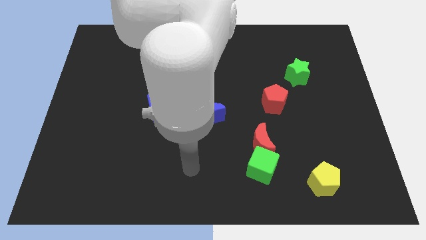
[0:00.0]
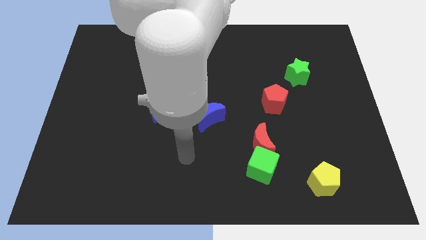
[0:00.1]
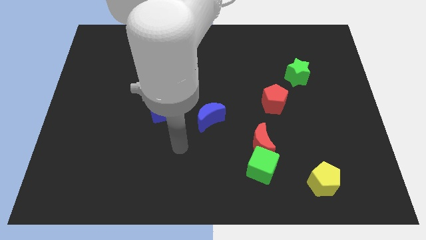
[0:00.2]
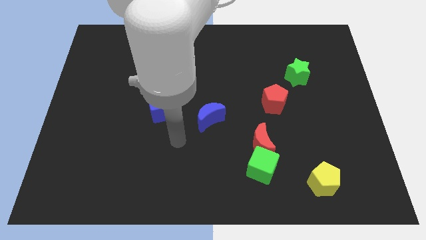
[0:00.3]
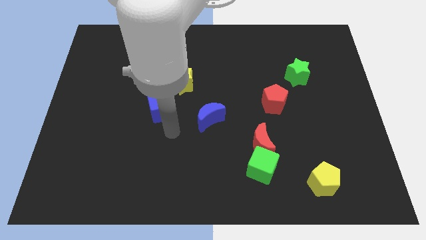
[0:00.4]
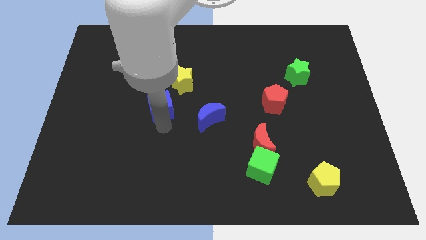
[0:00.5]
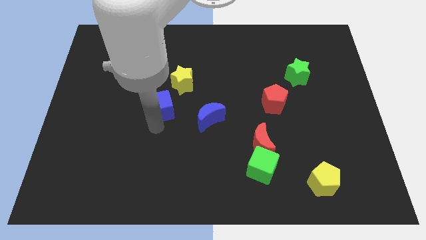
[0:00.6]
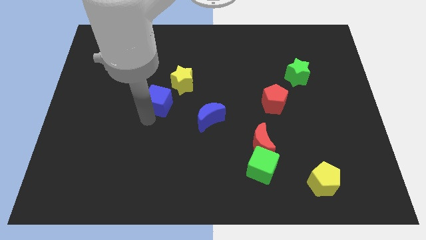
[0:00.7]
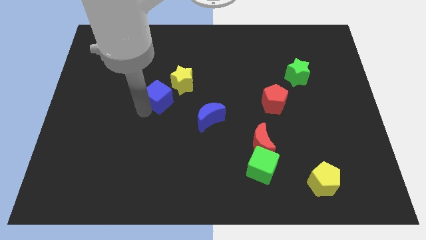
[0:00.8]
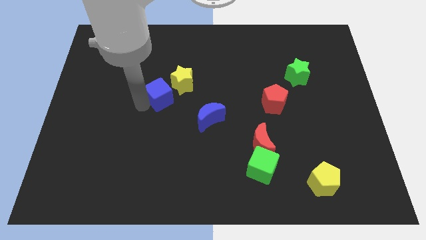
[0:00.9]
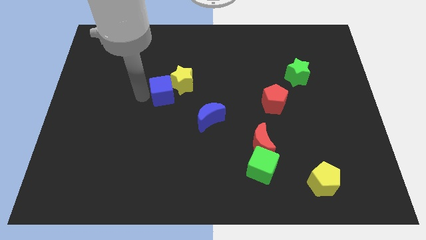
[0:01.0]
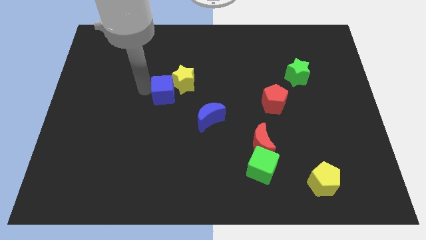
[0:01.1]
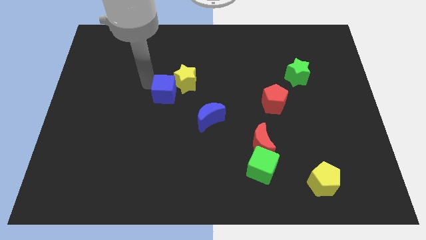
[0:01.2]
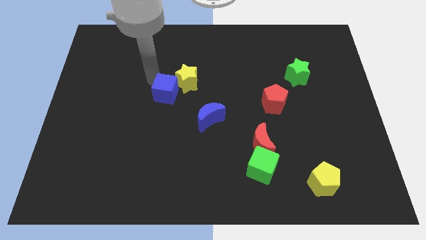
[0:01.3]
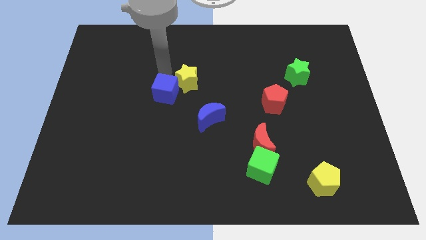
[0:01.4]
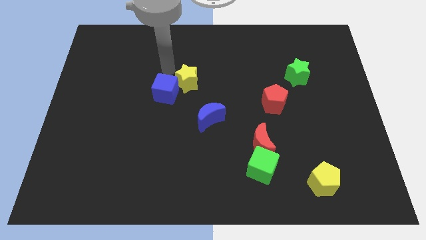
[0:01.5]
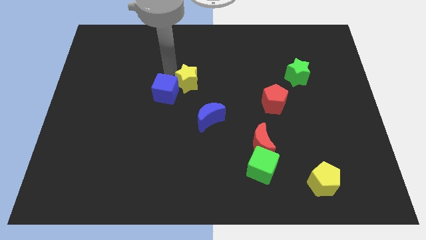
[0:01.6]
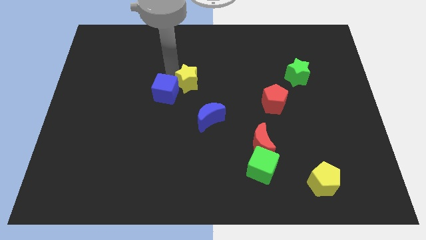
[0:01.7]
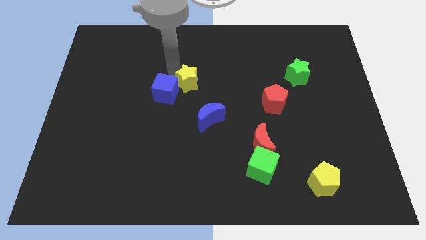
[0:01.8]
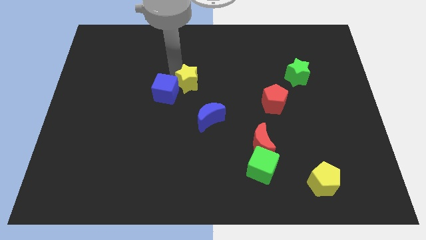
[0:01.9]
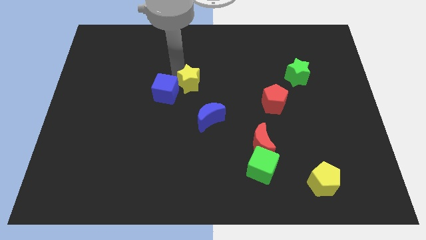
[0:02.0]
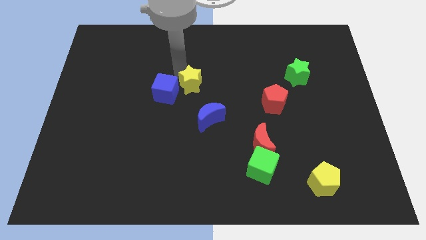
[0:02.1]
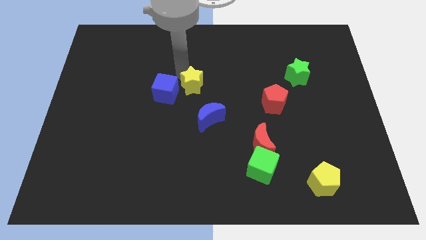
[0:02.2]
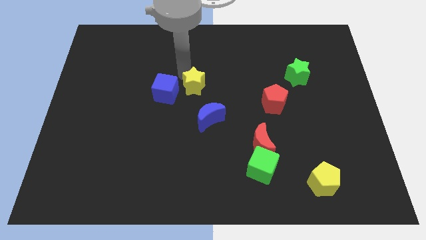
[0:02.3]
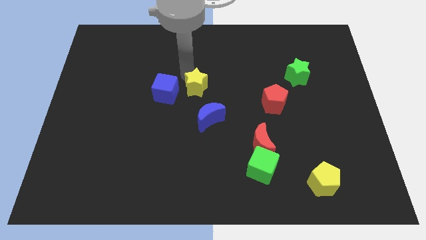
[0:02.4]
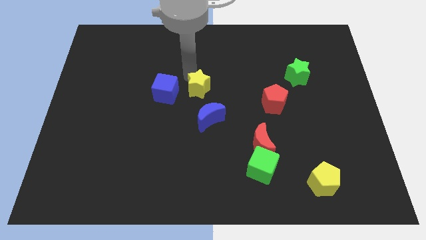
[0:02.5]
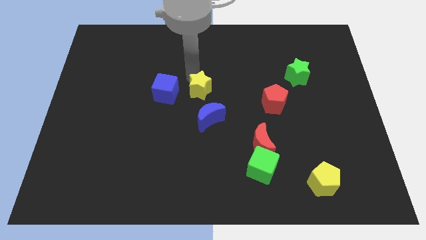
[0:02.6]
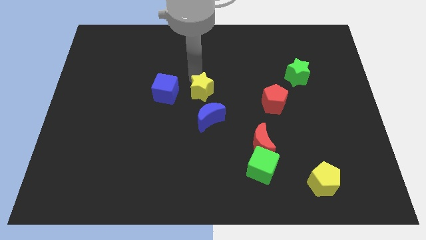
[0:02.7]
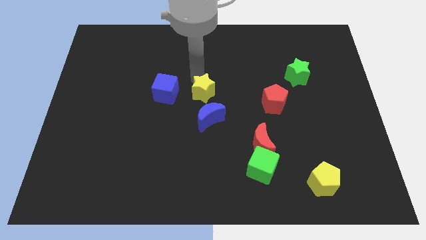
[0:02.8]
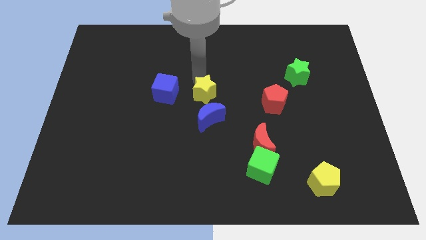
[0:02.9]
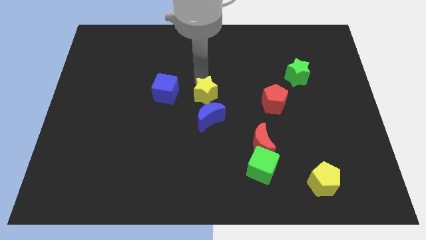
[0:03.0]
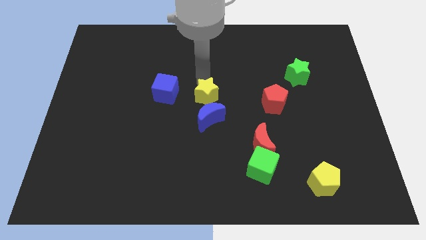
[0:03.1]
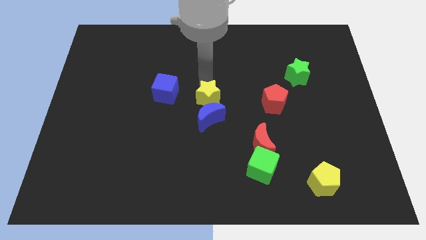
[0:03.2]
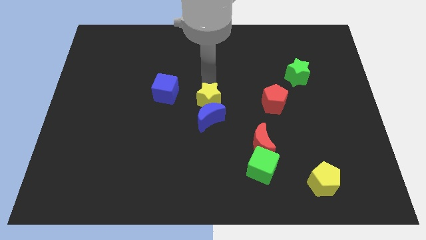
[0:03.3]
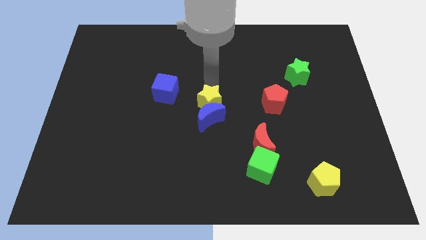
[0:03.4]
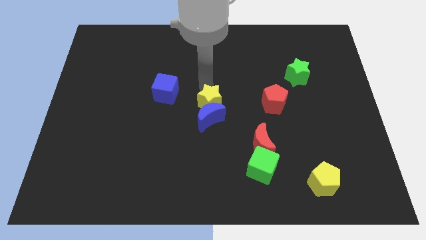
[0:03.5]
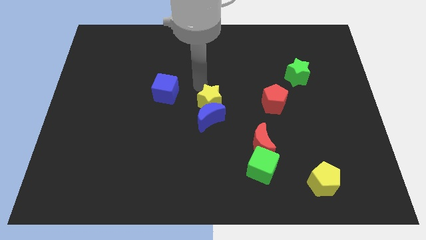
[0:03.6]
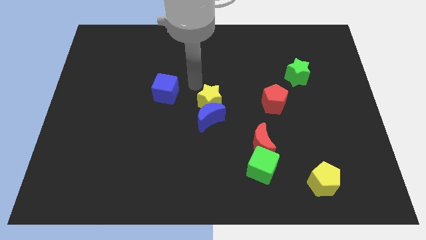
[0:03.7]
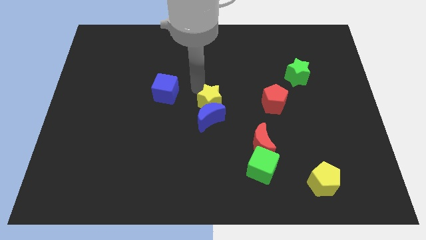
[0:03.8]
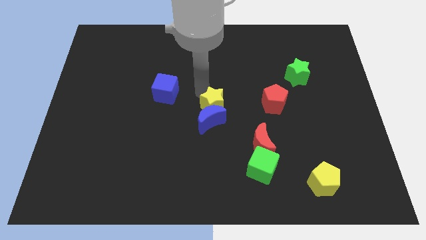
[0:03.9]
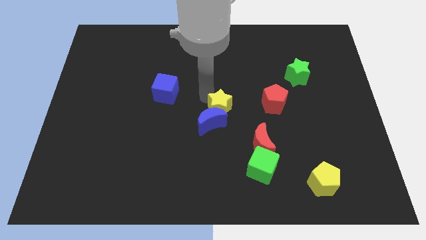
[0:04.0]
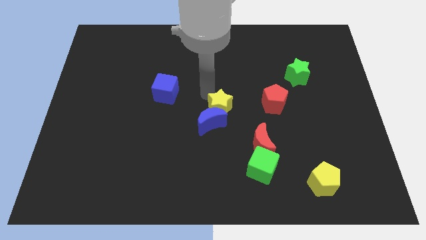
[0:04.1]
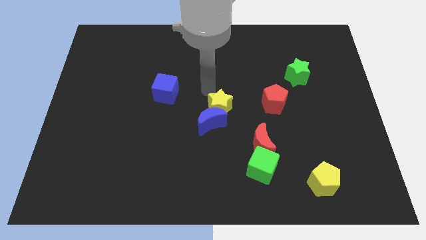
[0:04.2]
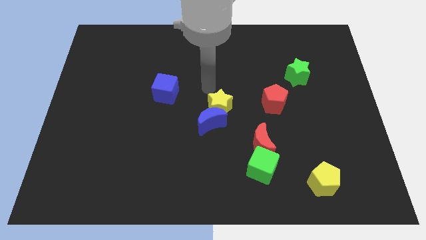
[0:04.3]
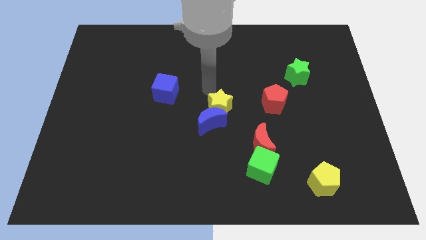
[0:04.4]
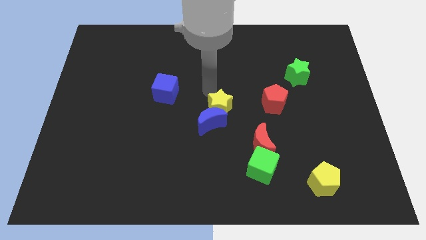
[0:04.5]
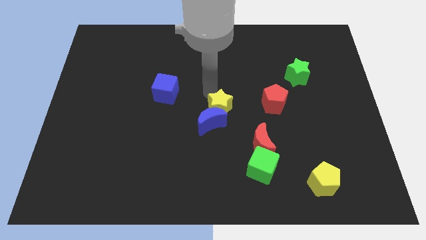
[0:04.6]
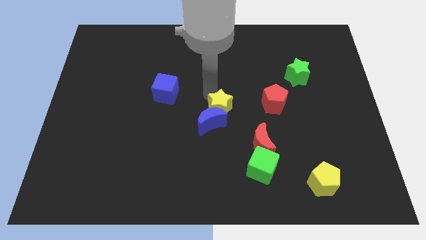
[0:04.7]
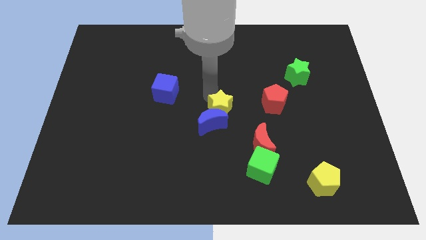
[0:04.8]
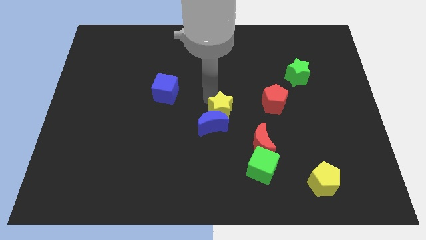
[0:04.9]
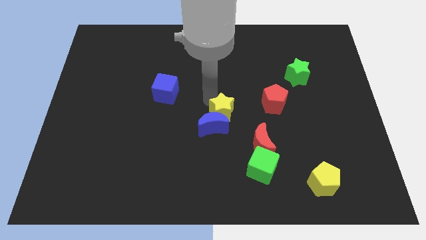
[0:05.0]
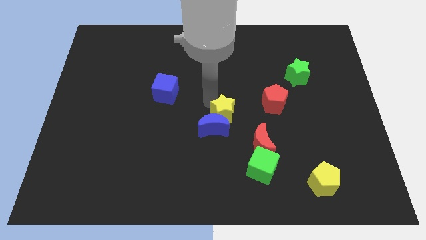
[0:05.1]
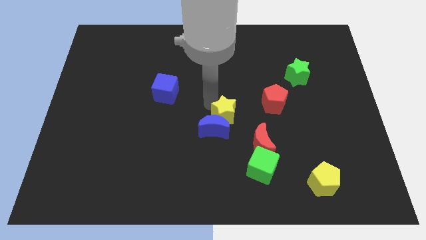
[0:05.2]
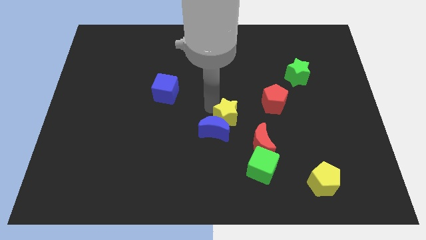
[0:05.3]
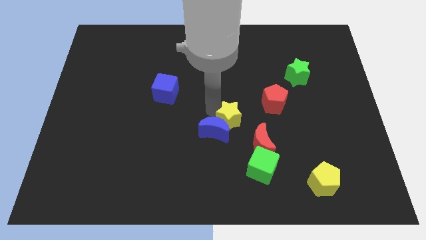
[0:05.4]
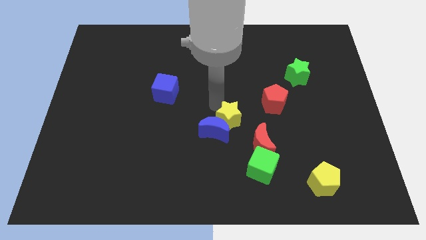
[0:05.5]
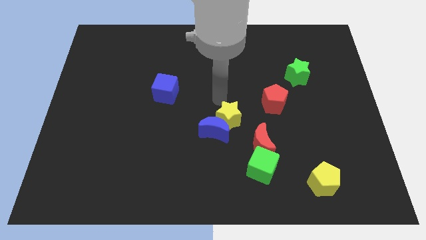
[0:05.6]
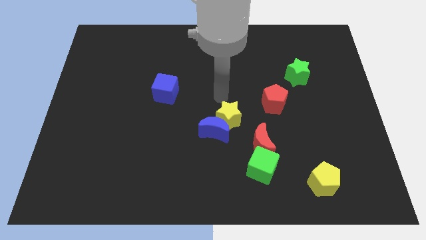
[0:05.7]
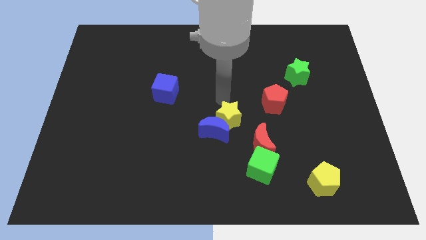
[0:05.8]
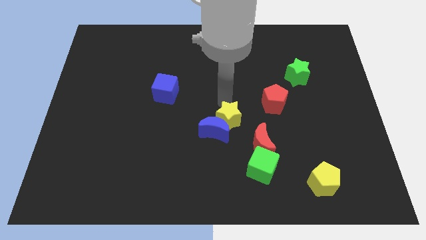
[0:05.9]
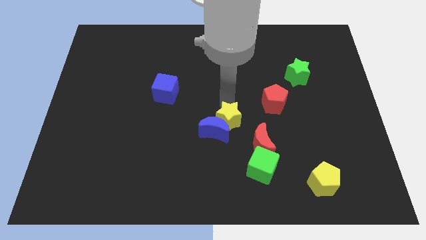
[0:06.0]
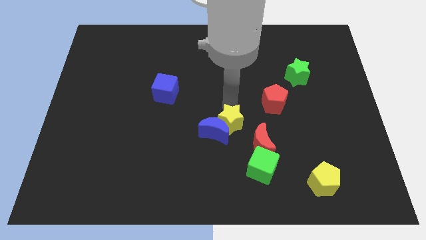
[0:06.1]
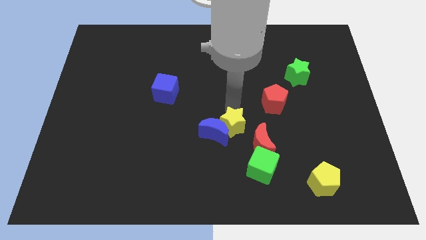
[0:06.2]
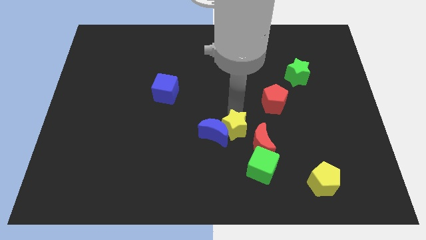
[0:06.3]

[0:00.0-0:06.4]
move the yellow star diagonally down and to the right of the blue moon
